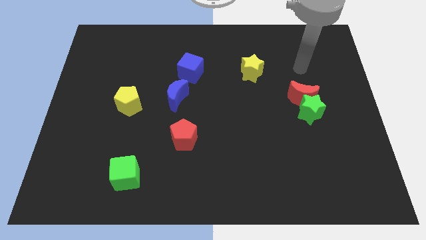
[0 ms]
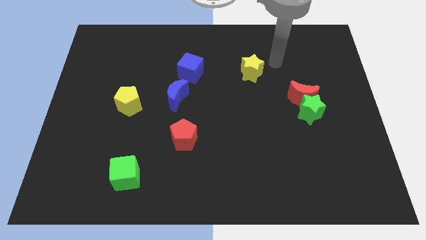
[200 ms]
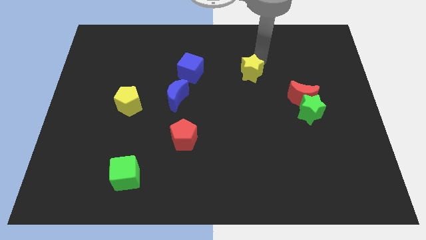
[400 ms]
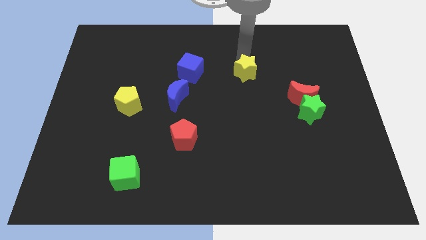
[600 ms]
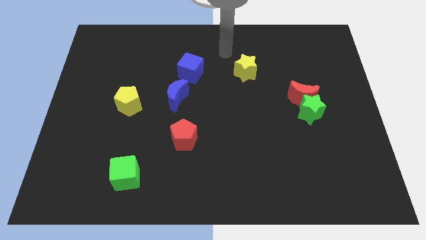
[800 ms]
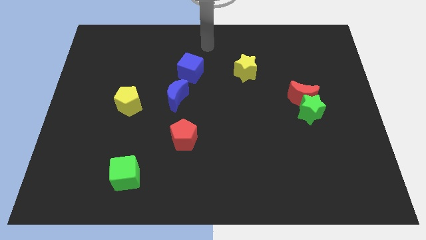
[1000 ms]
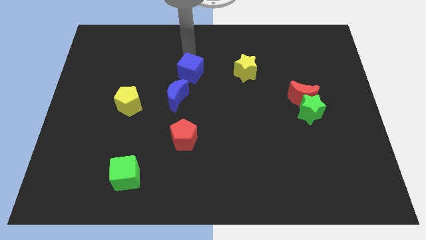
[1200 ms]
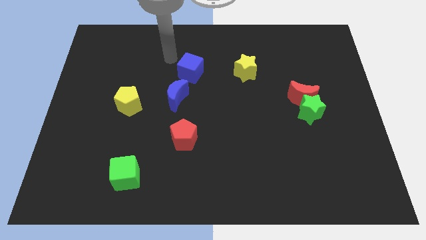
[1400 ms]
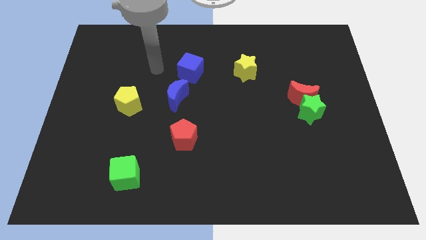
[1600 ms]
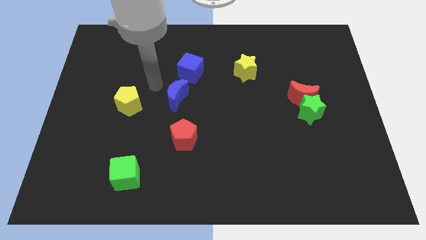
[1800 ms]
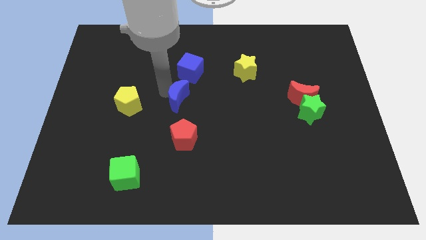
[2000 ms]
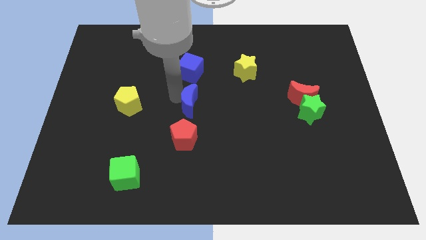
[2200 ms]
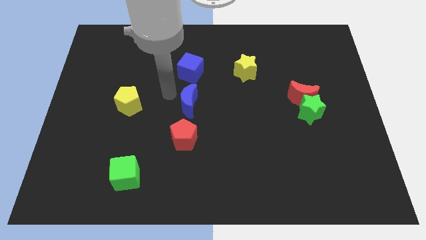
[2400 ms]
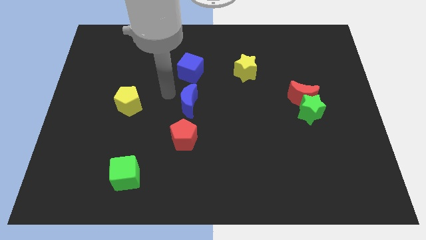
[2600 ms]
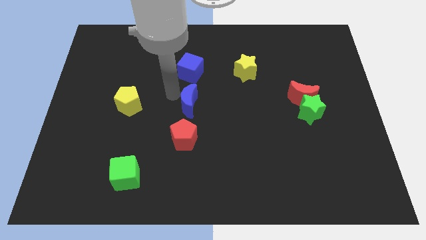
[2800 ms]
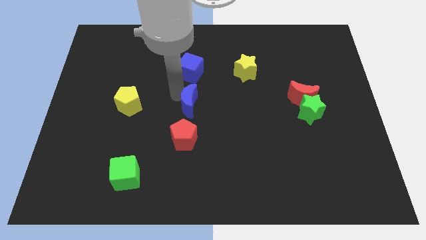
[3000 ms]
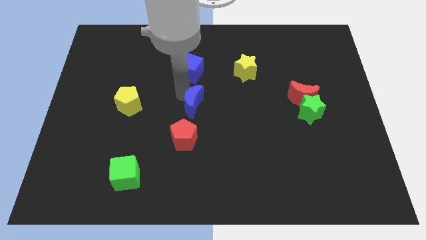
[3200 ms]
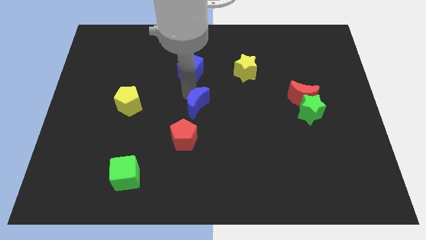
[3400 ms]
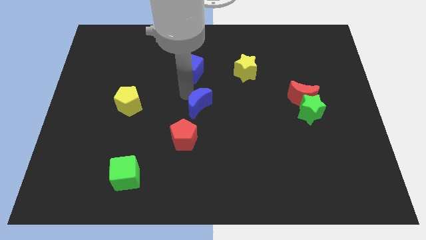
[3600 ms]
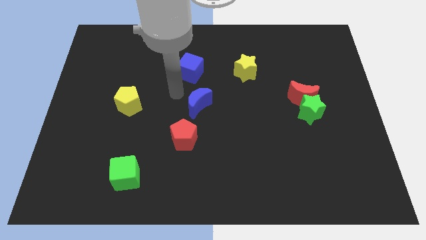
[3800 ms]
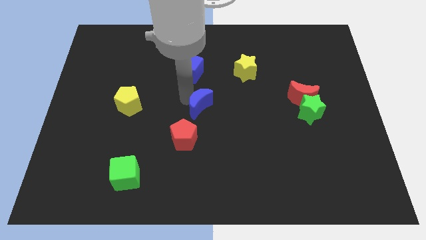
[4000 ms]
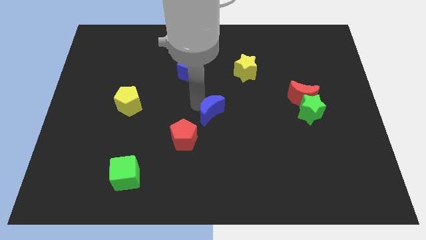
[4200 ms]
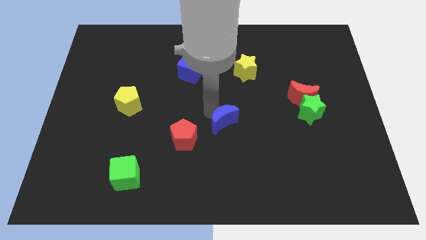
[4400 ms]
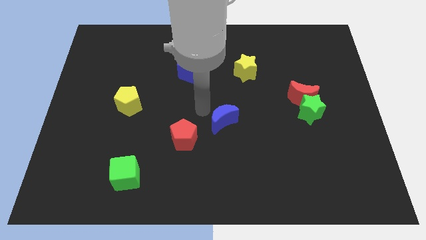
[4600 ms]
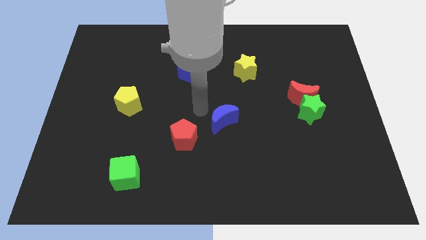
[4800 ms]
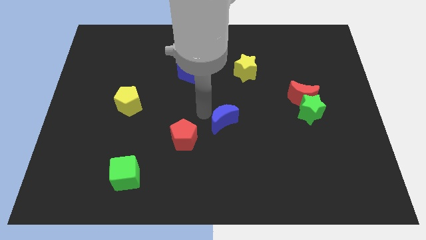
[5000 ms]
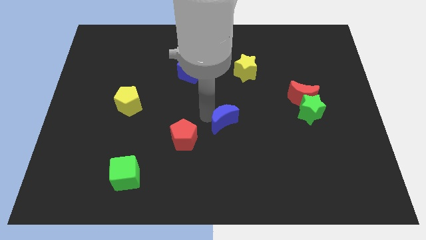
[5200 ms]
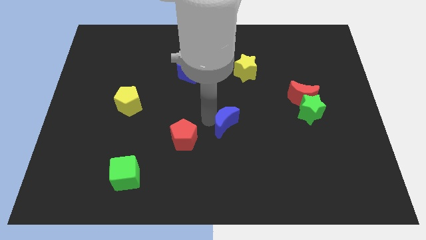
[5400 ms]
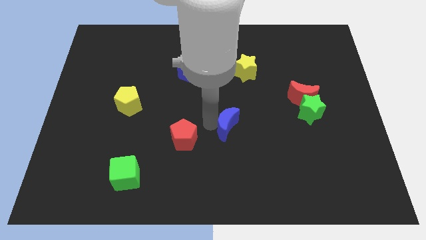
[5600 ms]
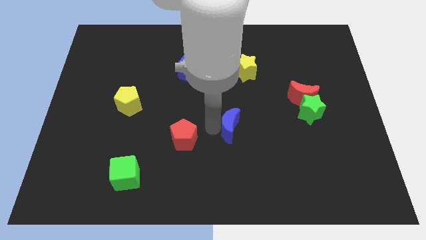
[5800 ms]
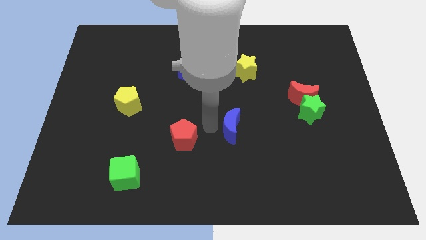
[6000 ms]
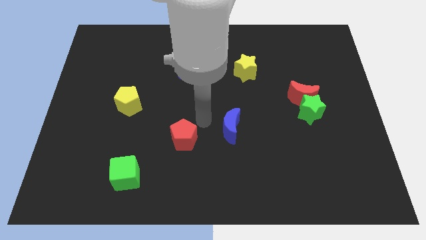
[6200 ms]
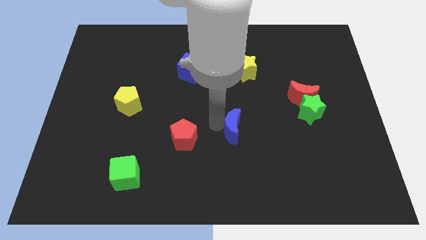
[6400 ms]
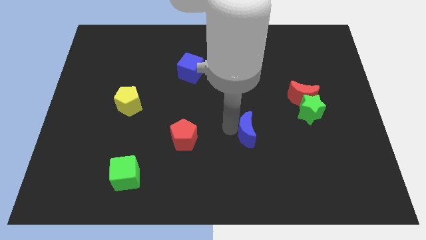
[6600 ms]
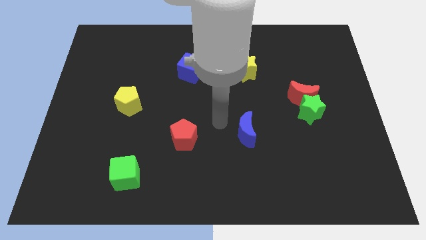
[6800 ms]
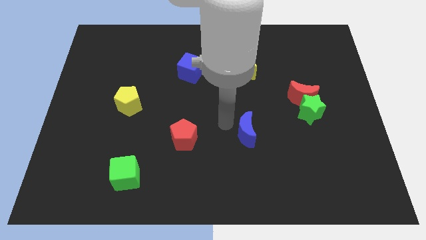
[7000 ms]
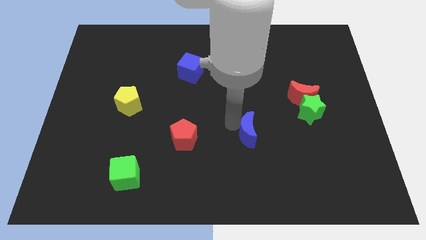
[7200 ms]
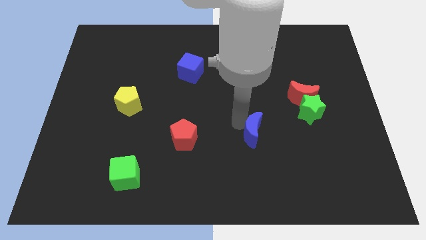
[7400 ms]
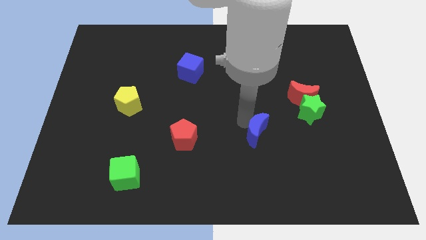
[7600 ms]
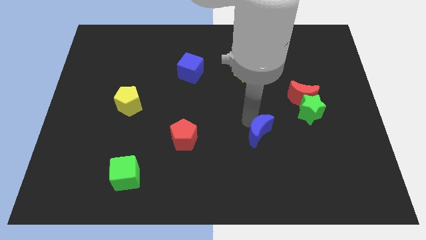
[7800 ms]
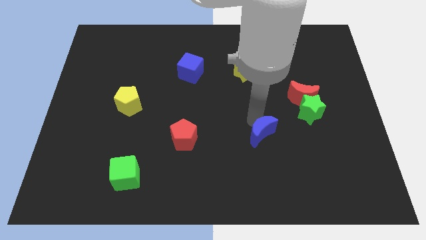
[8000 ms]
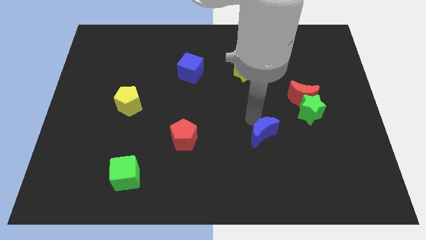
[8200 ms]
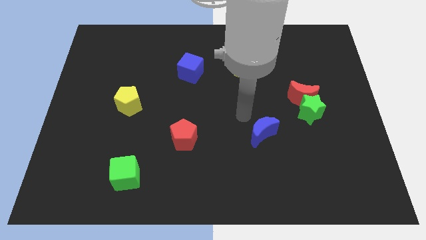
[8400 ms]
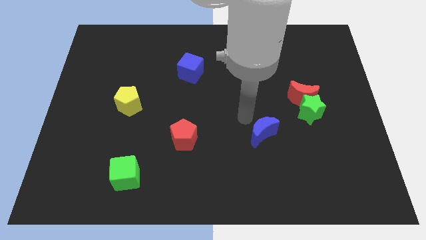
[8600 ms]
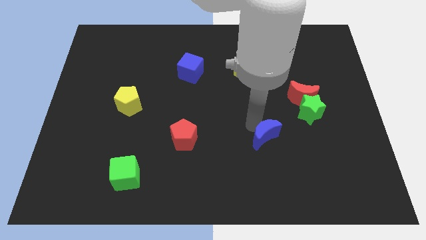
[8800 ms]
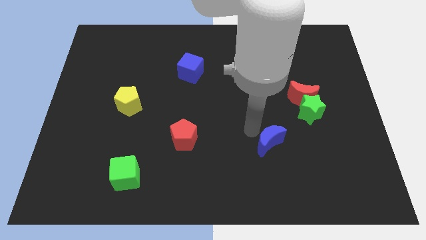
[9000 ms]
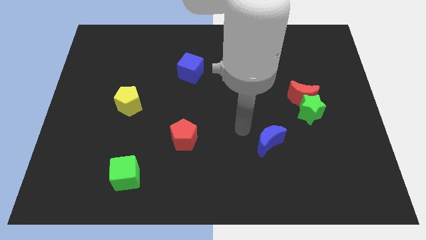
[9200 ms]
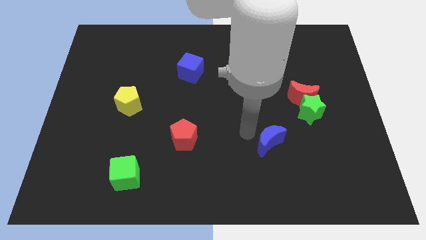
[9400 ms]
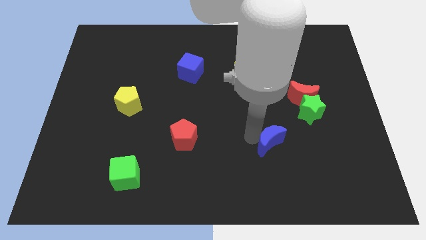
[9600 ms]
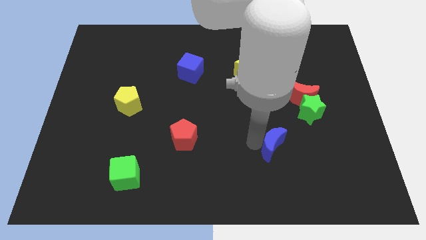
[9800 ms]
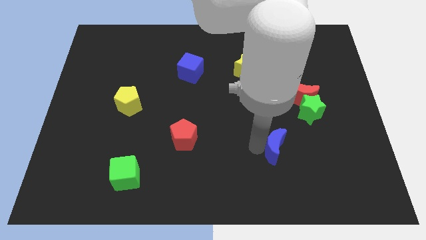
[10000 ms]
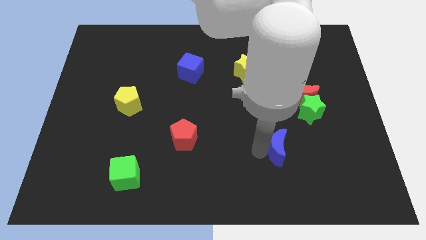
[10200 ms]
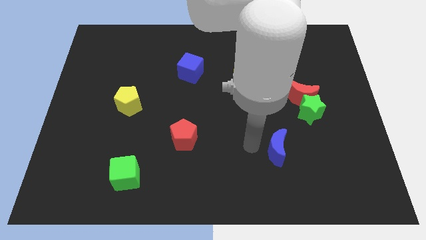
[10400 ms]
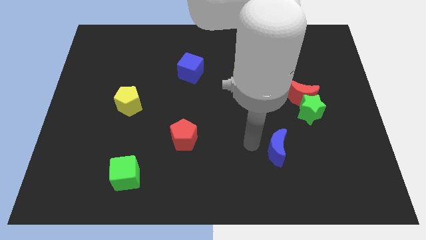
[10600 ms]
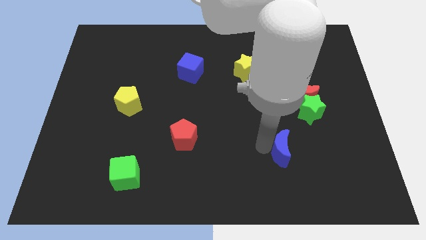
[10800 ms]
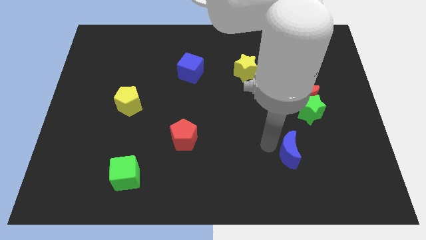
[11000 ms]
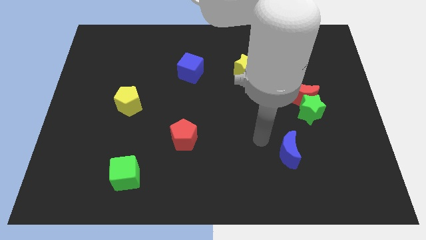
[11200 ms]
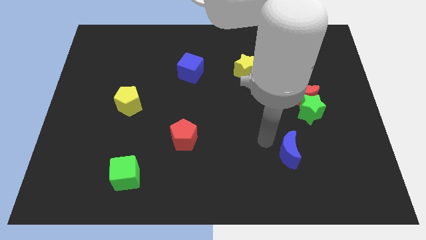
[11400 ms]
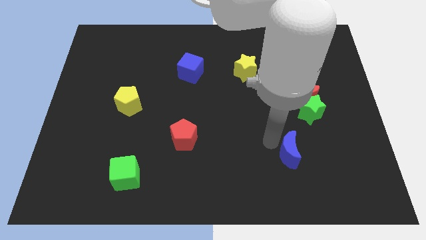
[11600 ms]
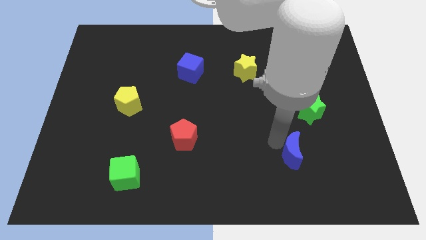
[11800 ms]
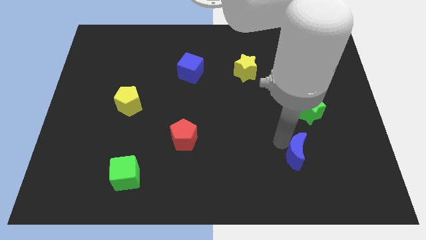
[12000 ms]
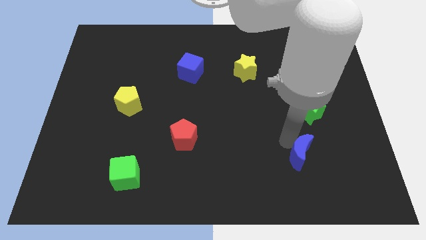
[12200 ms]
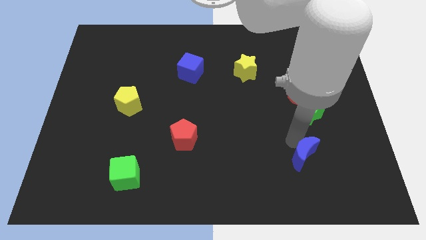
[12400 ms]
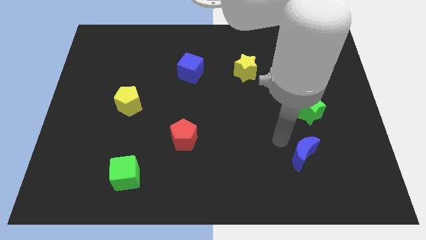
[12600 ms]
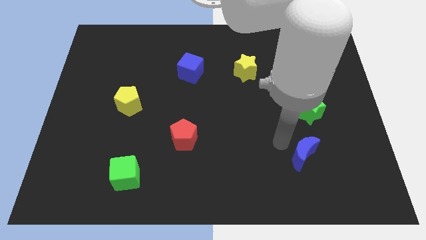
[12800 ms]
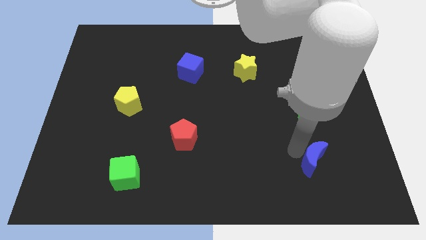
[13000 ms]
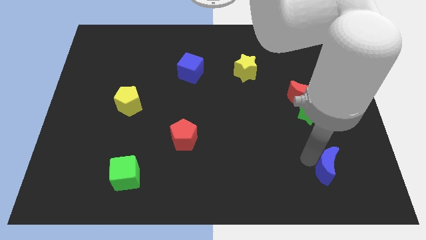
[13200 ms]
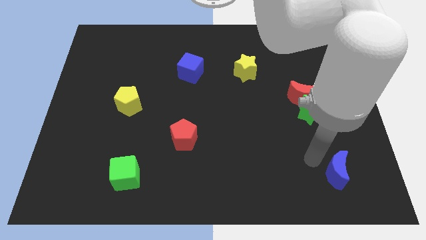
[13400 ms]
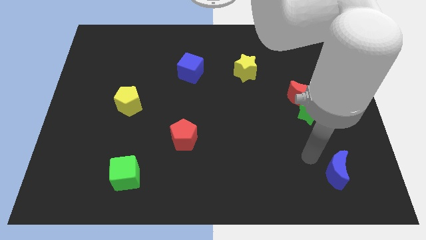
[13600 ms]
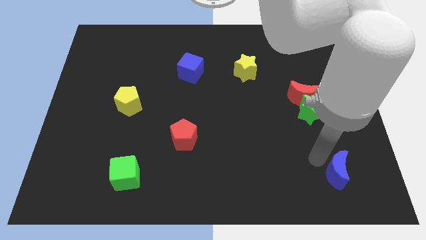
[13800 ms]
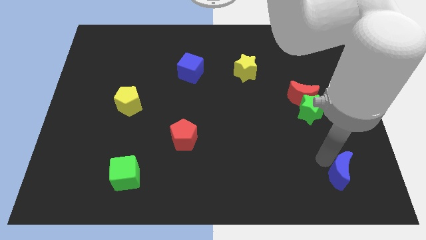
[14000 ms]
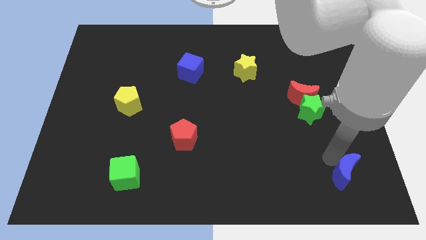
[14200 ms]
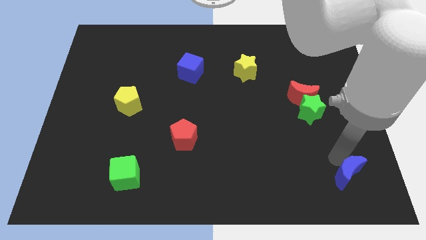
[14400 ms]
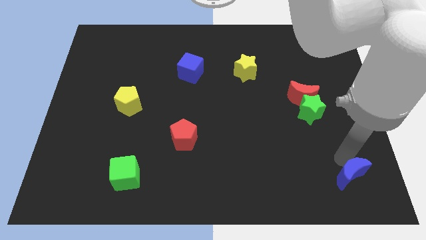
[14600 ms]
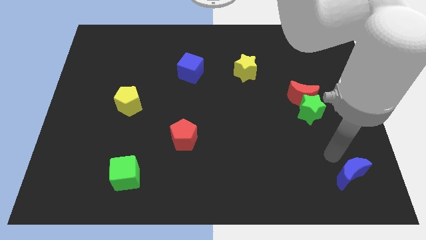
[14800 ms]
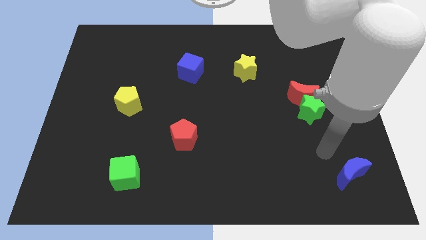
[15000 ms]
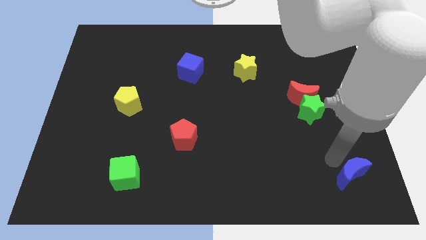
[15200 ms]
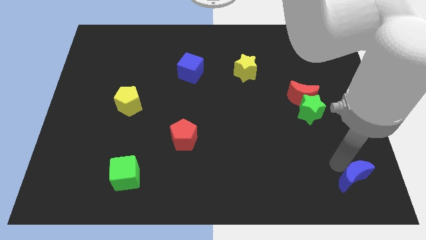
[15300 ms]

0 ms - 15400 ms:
push the blue moon to the lower right corner
